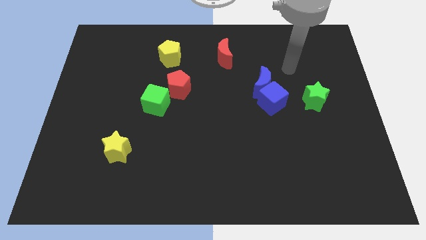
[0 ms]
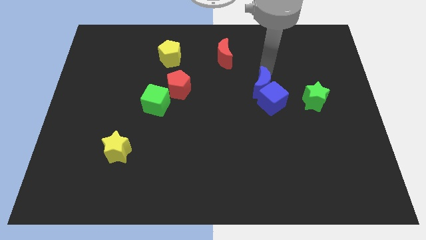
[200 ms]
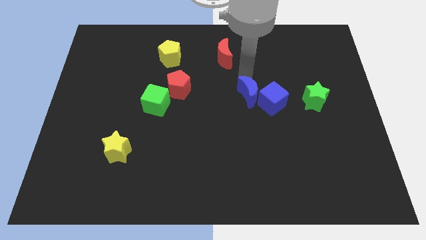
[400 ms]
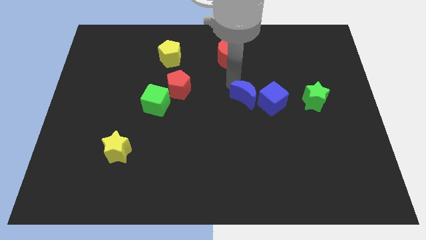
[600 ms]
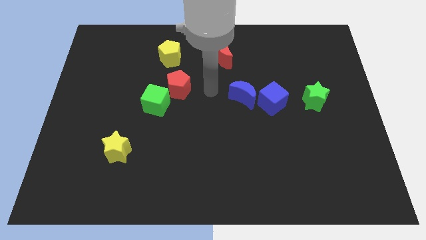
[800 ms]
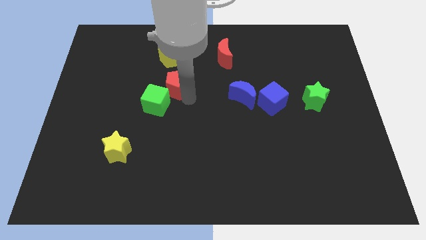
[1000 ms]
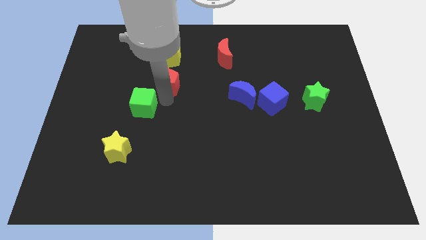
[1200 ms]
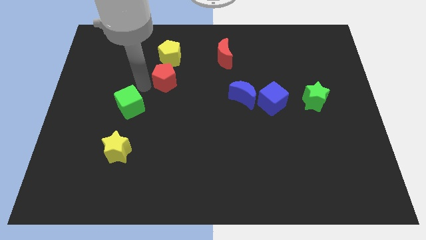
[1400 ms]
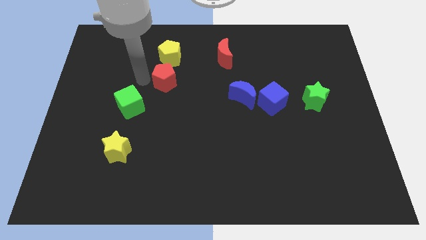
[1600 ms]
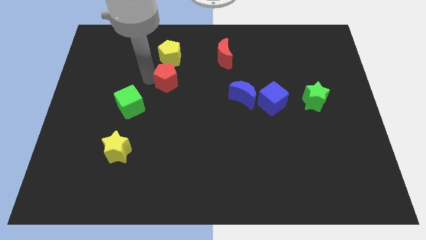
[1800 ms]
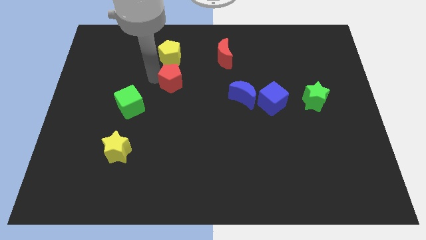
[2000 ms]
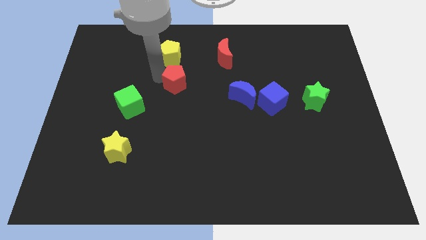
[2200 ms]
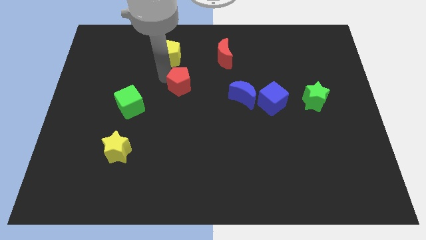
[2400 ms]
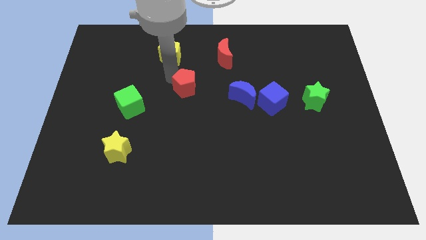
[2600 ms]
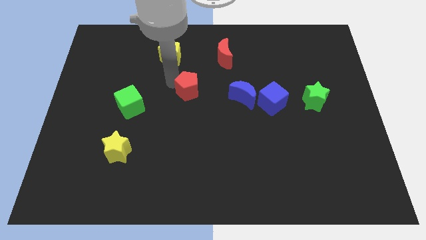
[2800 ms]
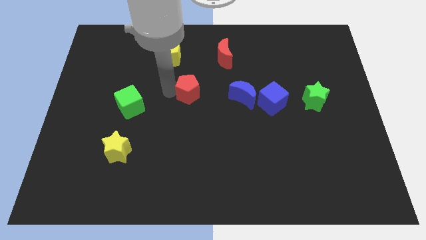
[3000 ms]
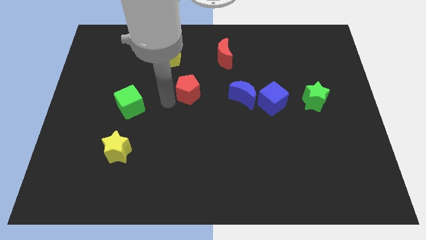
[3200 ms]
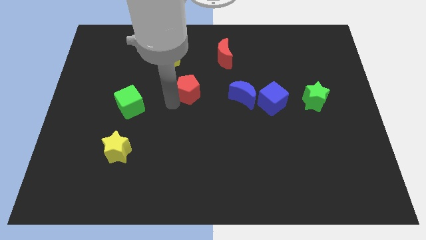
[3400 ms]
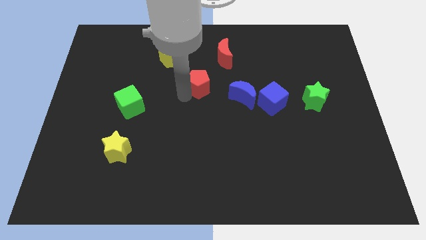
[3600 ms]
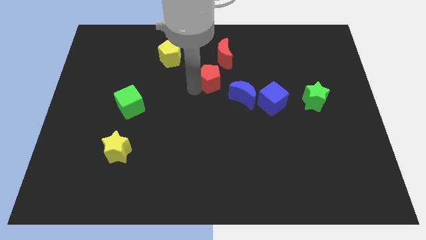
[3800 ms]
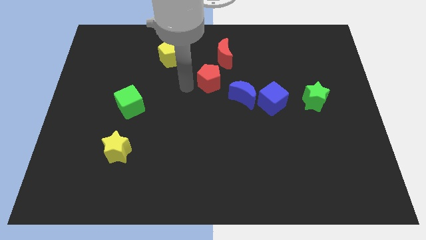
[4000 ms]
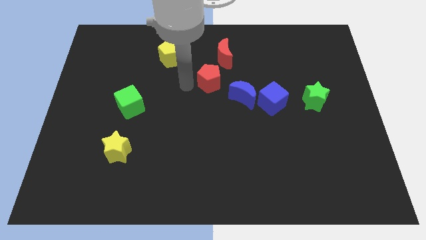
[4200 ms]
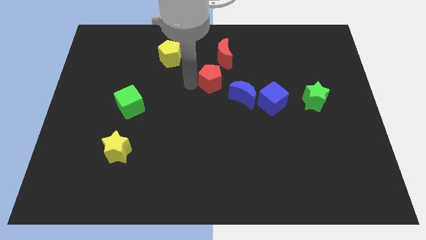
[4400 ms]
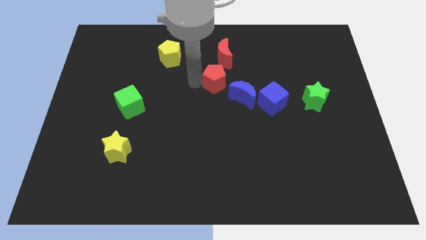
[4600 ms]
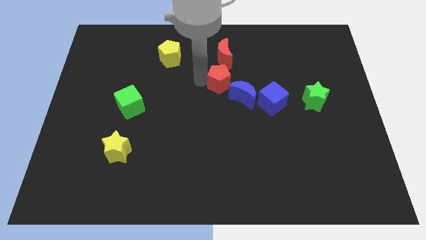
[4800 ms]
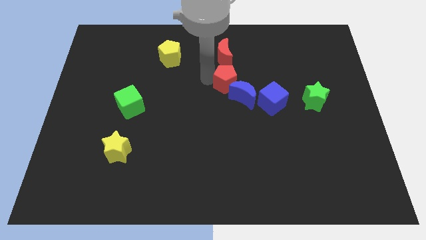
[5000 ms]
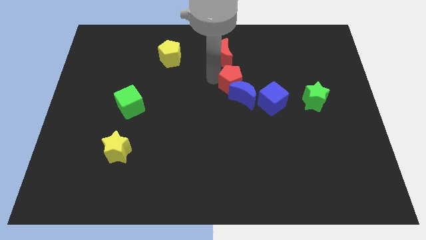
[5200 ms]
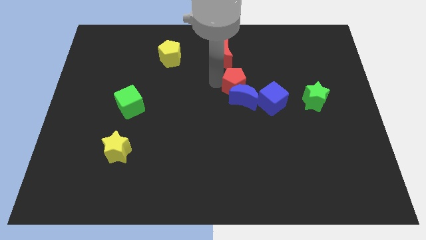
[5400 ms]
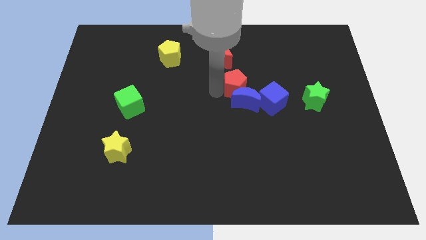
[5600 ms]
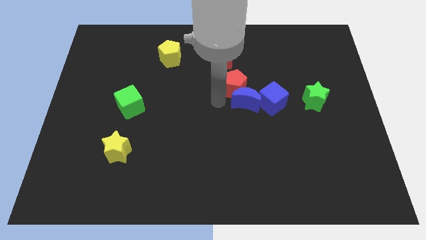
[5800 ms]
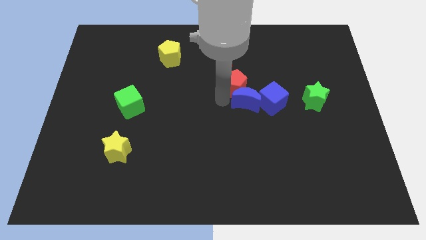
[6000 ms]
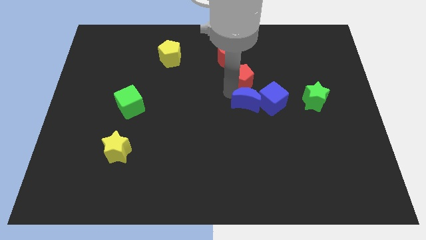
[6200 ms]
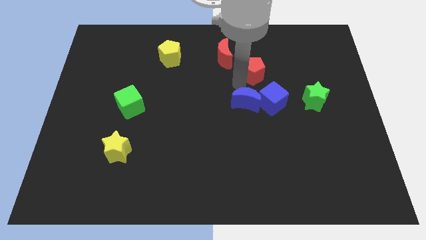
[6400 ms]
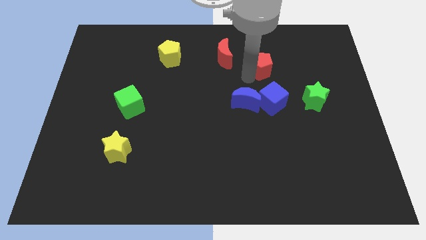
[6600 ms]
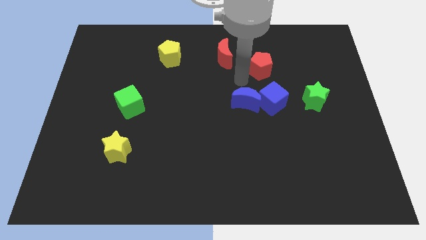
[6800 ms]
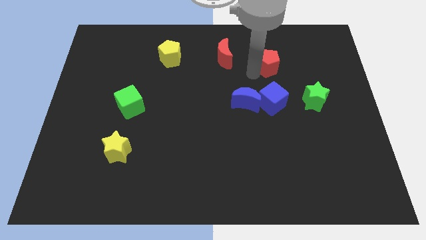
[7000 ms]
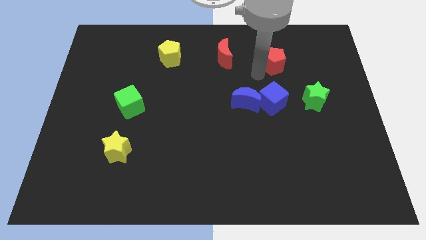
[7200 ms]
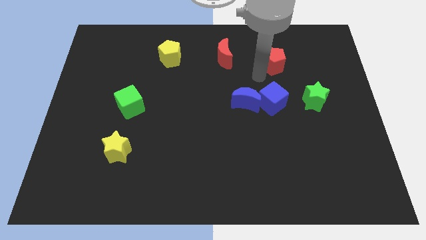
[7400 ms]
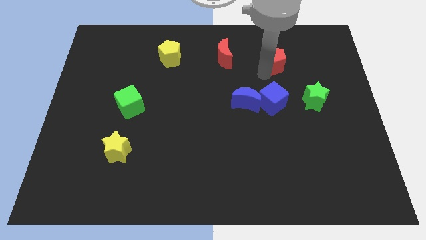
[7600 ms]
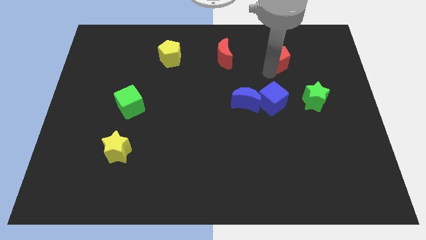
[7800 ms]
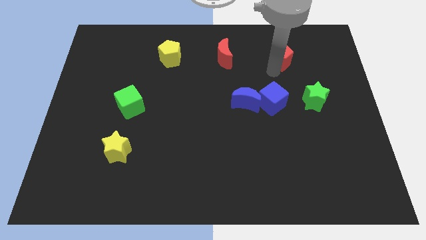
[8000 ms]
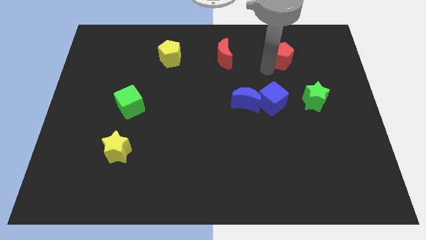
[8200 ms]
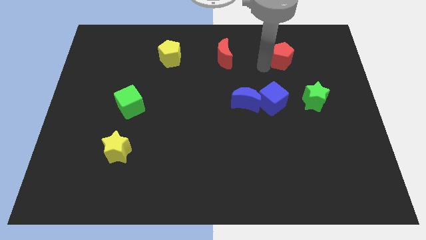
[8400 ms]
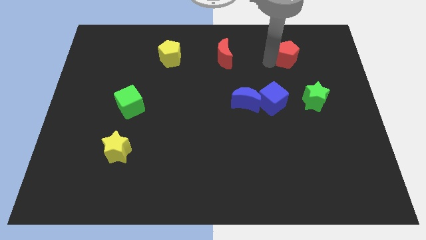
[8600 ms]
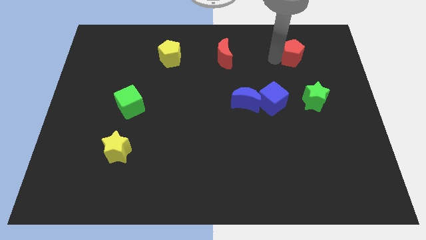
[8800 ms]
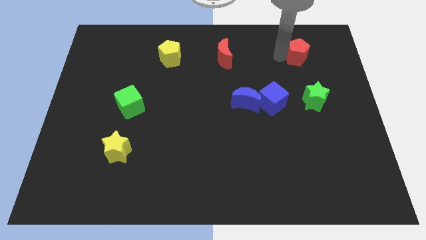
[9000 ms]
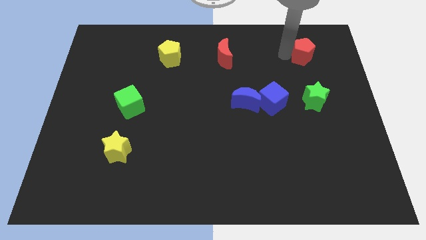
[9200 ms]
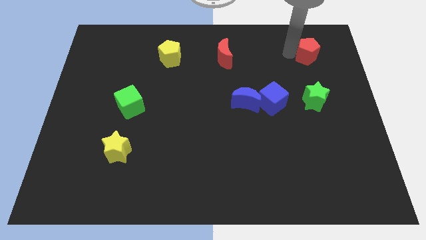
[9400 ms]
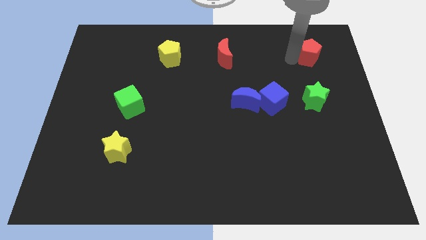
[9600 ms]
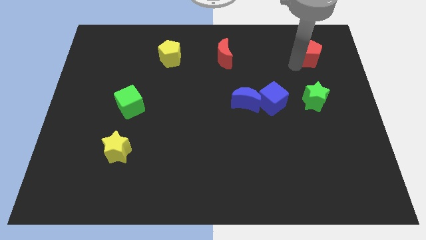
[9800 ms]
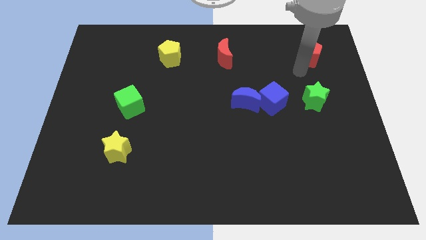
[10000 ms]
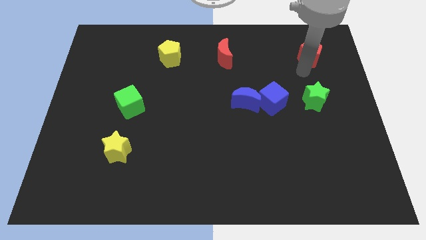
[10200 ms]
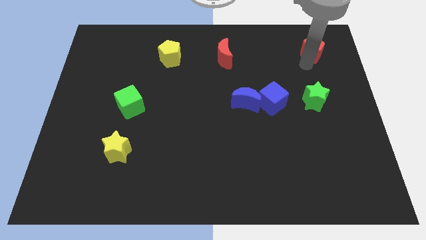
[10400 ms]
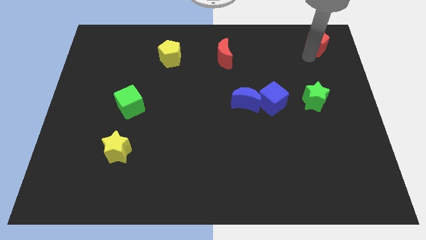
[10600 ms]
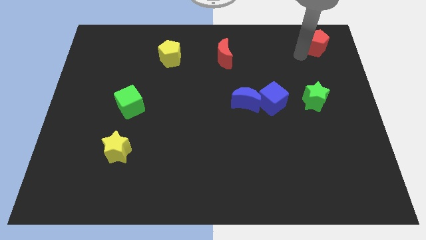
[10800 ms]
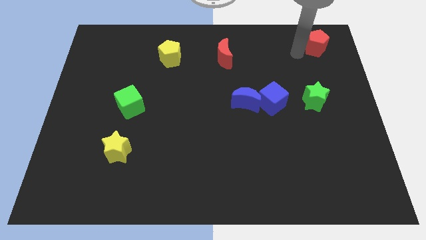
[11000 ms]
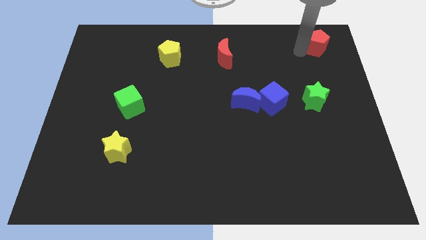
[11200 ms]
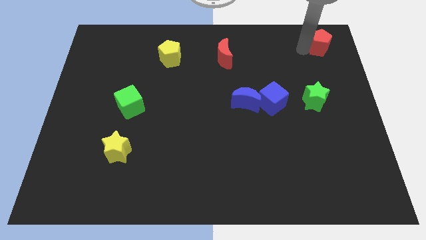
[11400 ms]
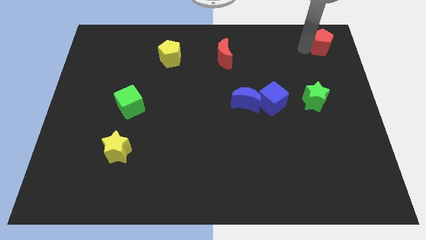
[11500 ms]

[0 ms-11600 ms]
push the red pentagon to the top right

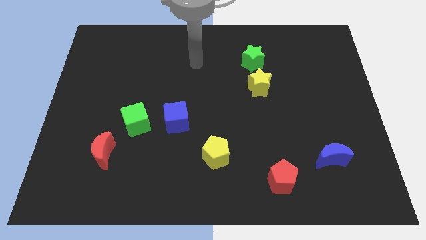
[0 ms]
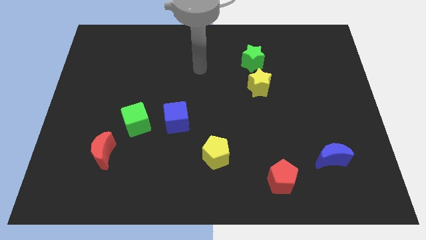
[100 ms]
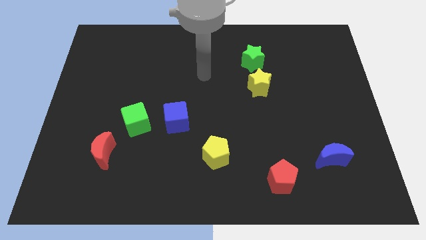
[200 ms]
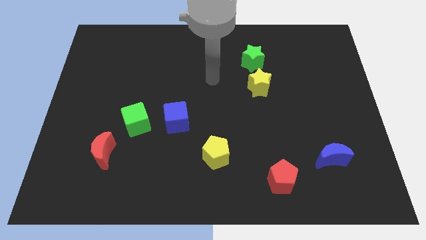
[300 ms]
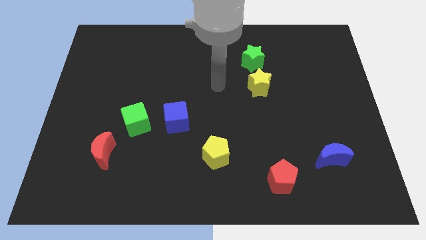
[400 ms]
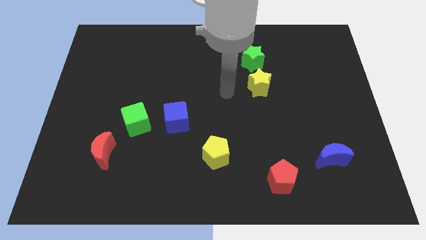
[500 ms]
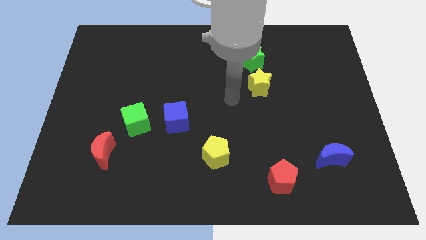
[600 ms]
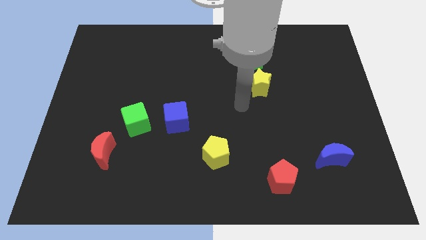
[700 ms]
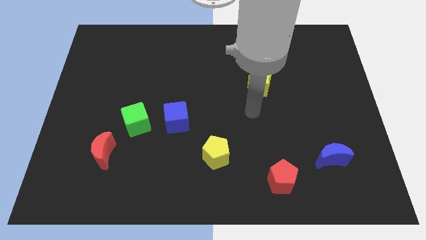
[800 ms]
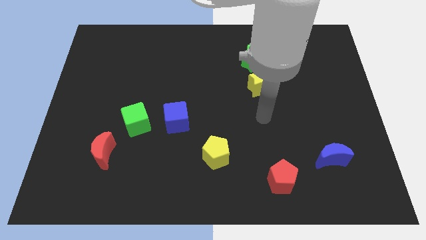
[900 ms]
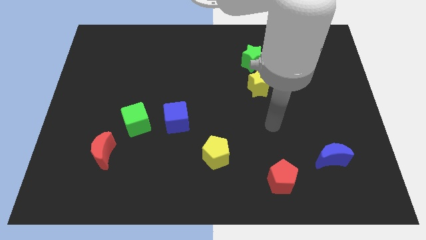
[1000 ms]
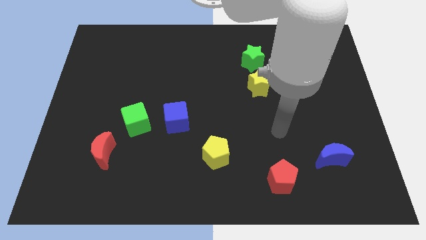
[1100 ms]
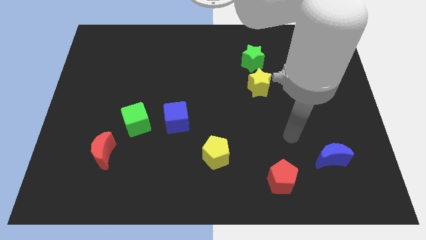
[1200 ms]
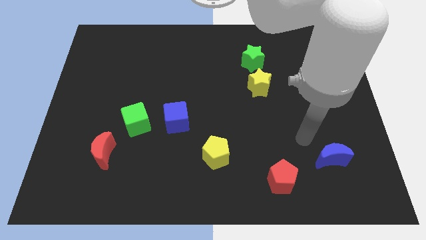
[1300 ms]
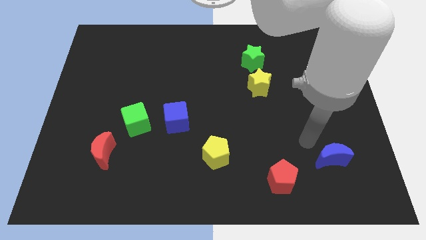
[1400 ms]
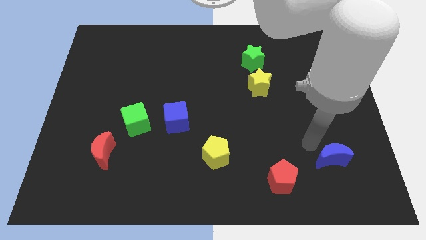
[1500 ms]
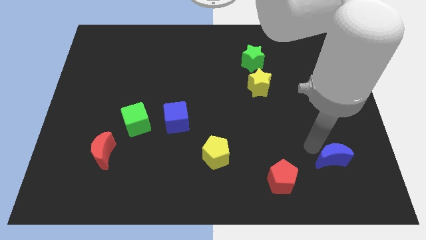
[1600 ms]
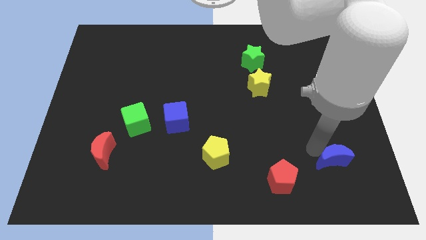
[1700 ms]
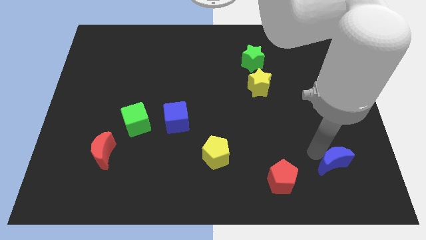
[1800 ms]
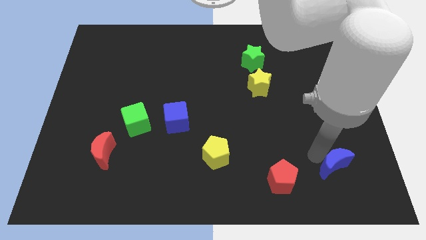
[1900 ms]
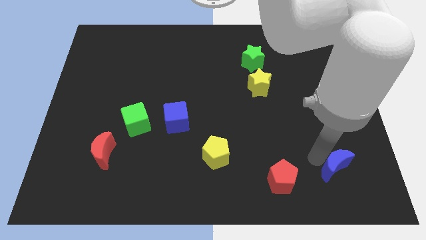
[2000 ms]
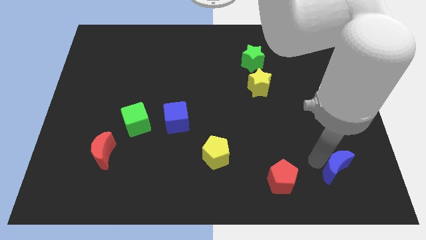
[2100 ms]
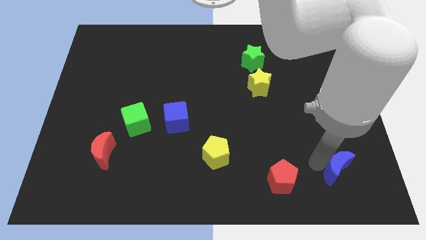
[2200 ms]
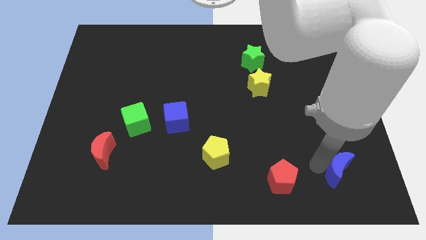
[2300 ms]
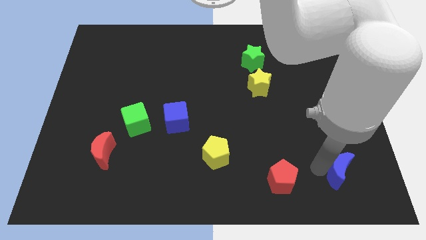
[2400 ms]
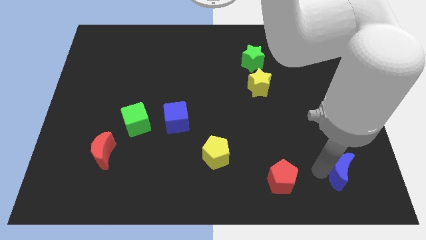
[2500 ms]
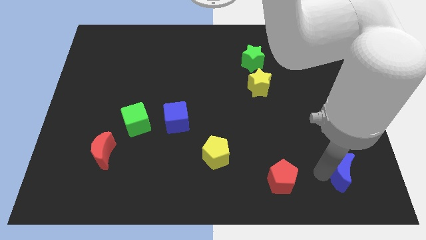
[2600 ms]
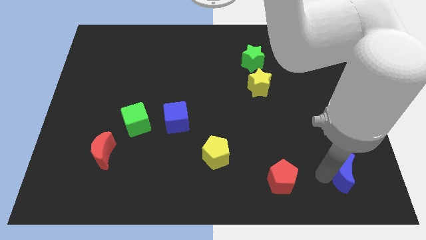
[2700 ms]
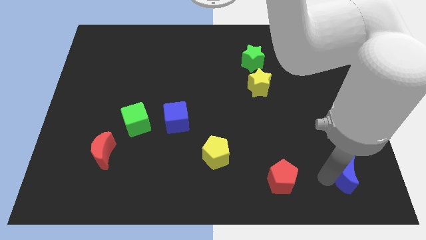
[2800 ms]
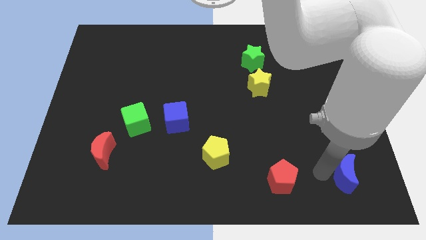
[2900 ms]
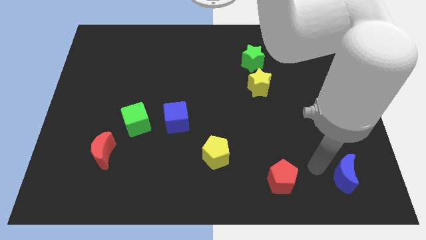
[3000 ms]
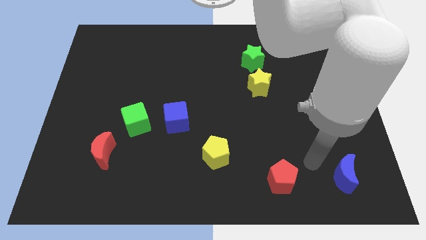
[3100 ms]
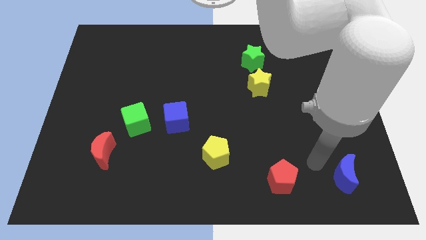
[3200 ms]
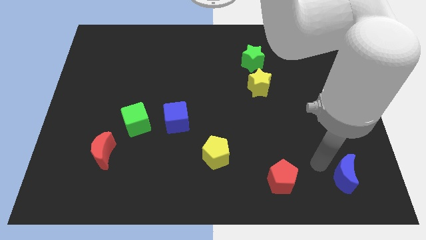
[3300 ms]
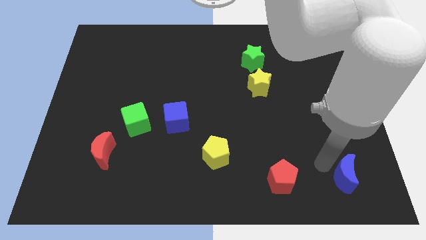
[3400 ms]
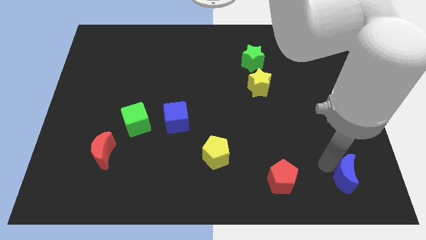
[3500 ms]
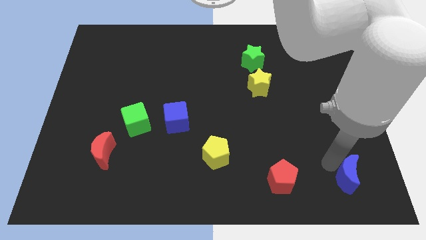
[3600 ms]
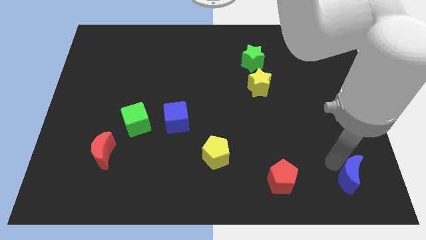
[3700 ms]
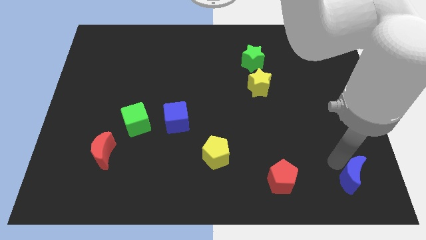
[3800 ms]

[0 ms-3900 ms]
move the blue moon to the lower right corner
